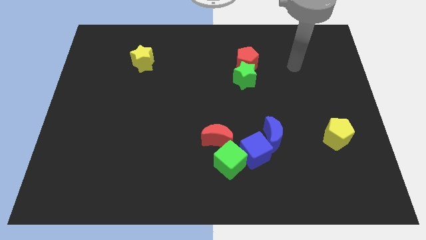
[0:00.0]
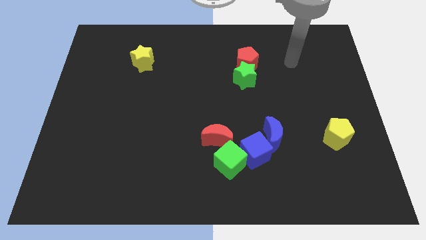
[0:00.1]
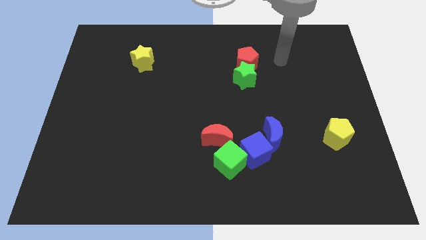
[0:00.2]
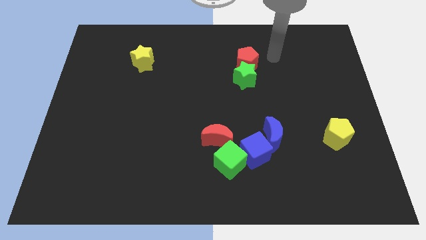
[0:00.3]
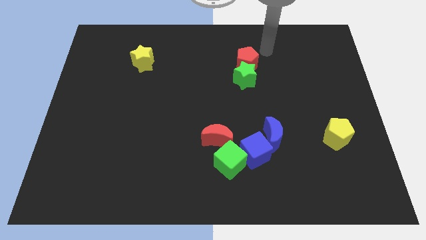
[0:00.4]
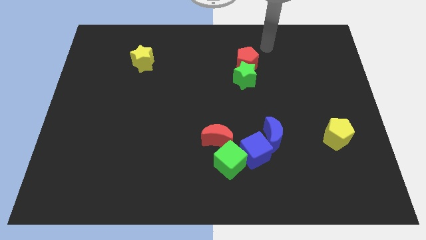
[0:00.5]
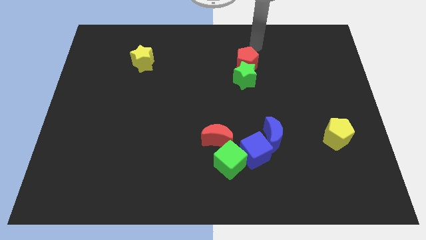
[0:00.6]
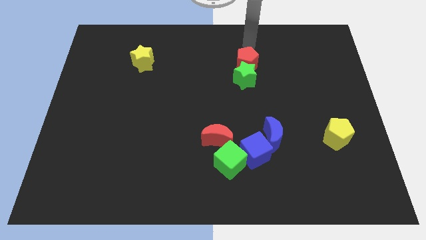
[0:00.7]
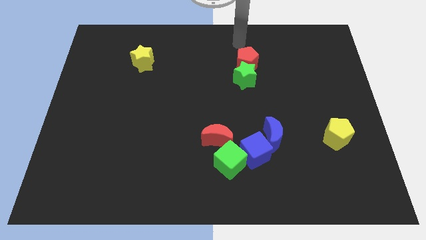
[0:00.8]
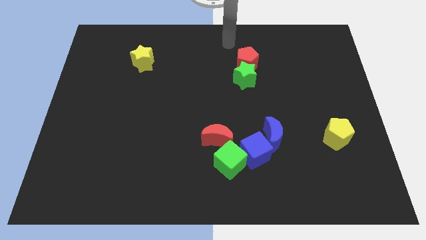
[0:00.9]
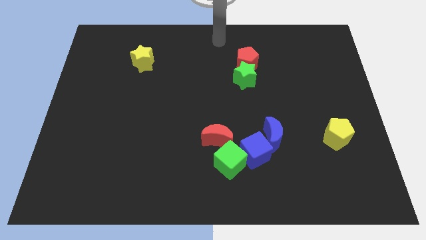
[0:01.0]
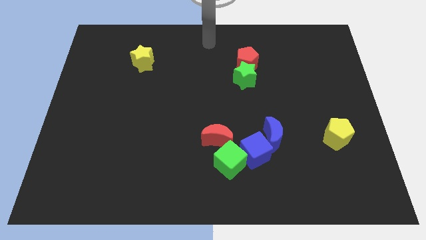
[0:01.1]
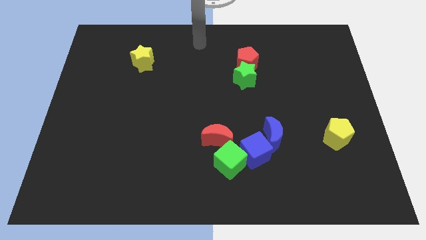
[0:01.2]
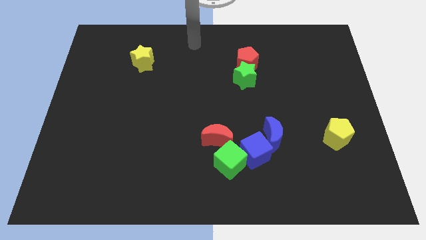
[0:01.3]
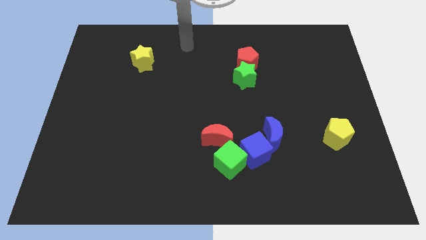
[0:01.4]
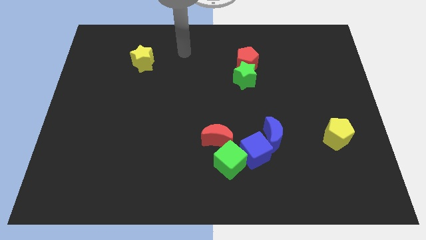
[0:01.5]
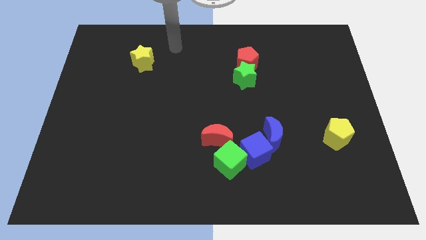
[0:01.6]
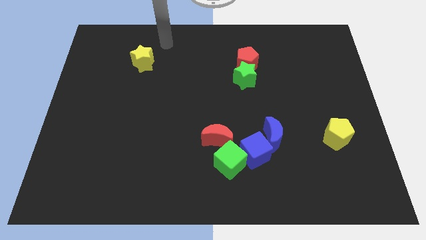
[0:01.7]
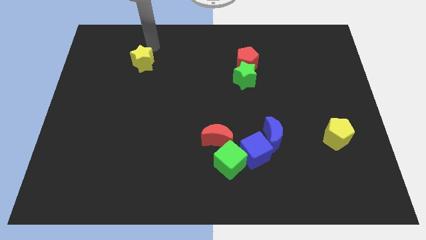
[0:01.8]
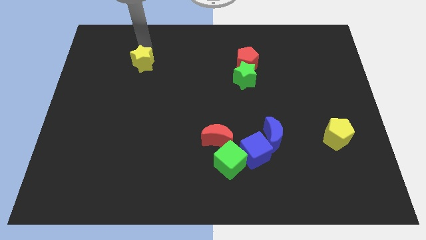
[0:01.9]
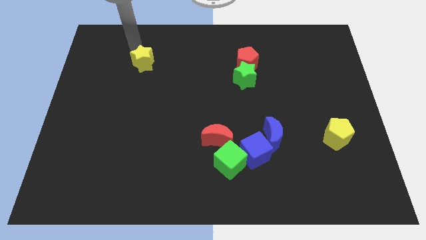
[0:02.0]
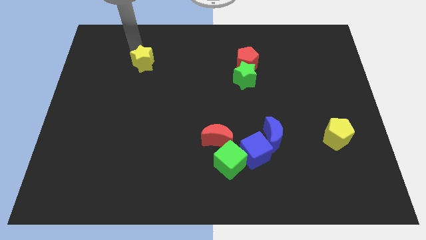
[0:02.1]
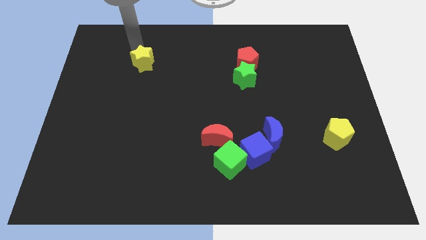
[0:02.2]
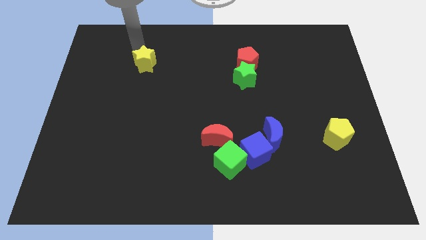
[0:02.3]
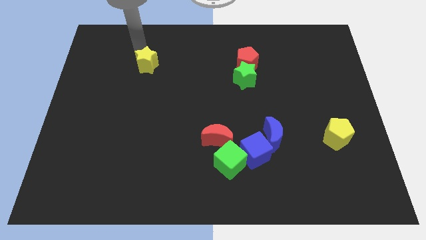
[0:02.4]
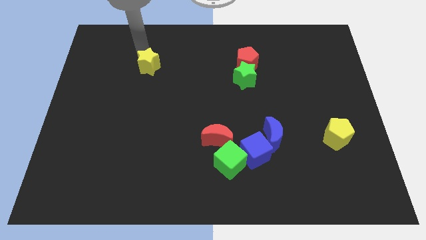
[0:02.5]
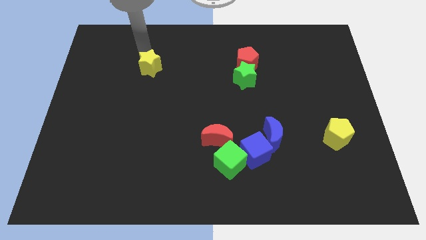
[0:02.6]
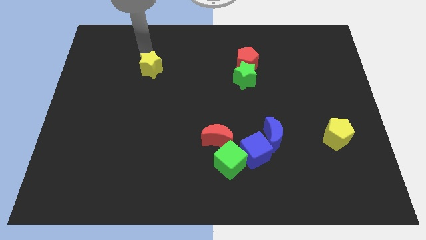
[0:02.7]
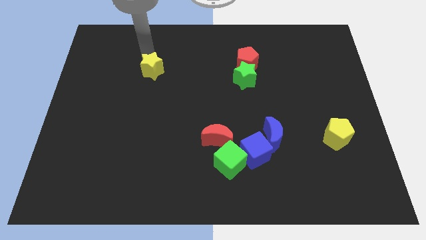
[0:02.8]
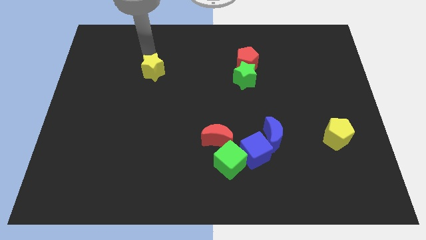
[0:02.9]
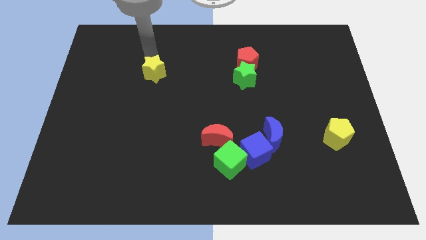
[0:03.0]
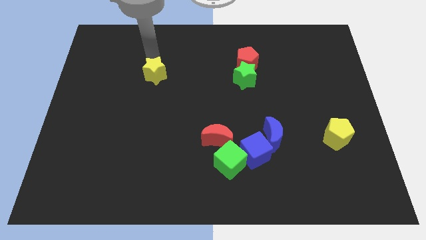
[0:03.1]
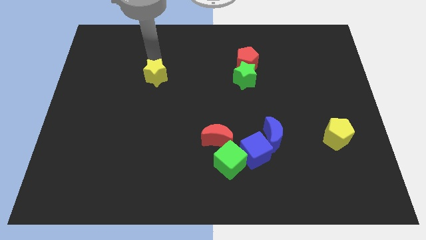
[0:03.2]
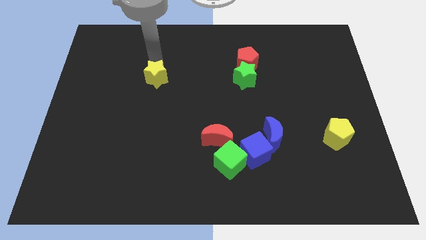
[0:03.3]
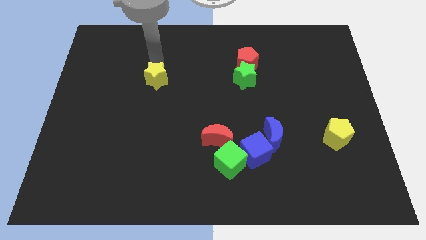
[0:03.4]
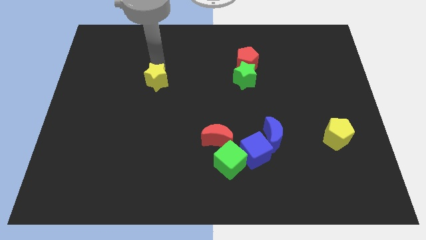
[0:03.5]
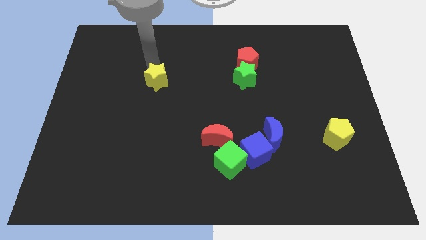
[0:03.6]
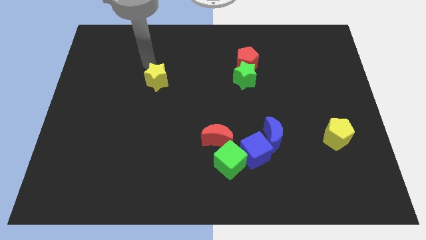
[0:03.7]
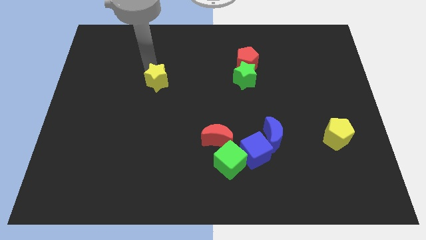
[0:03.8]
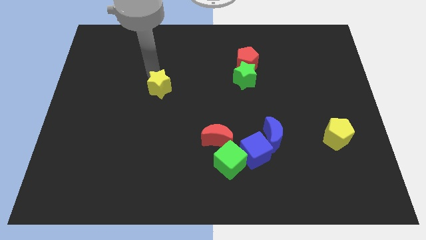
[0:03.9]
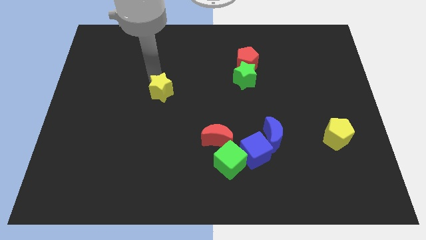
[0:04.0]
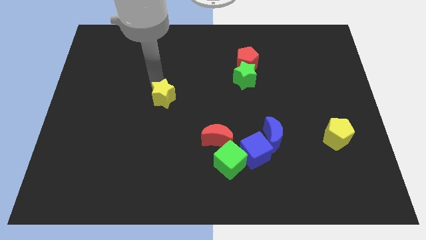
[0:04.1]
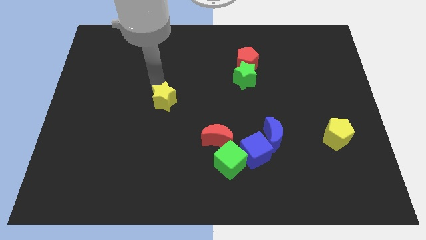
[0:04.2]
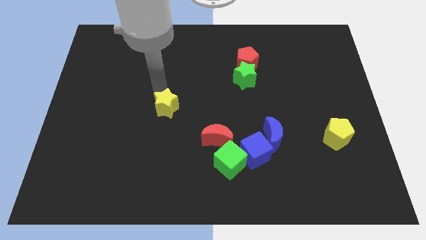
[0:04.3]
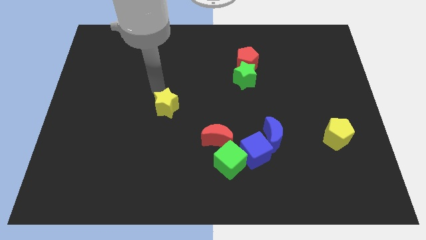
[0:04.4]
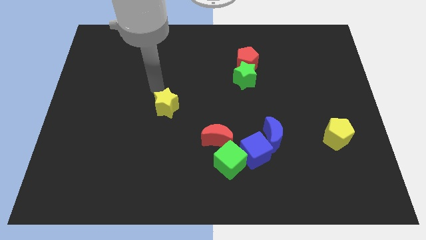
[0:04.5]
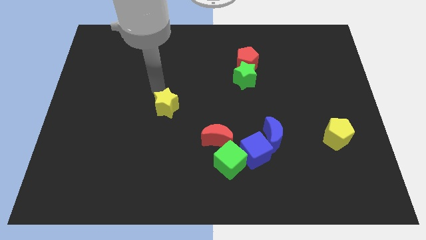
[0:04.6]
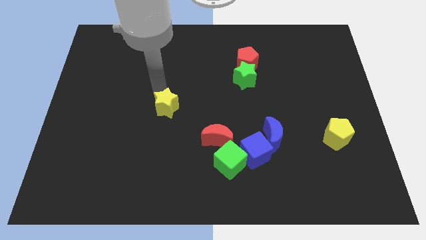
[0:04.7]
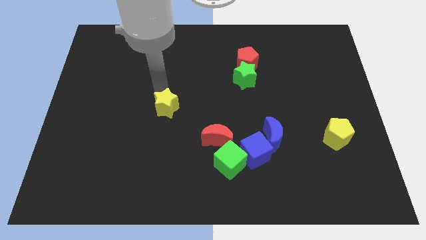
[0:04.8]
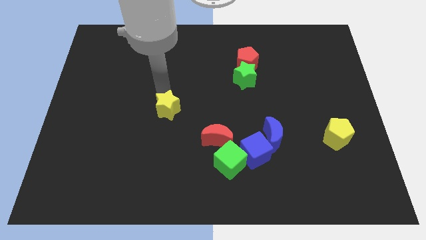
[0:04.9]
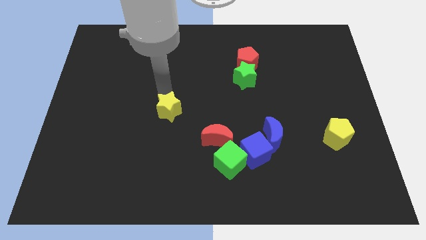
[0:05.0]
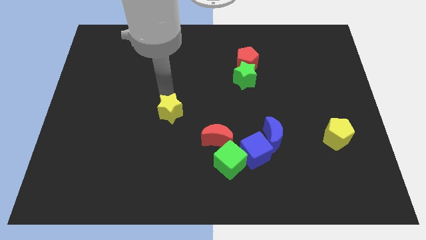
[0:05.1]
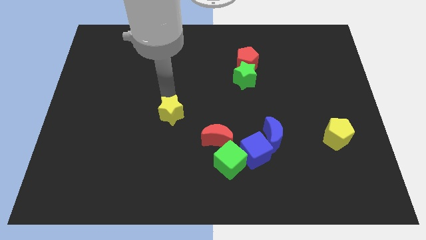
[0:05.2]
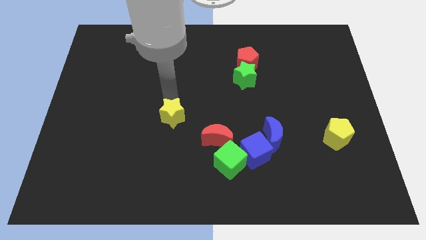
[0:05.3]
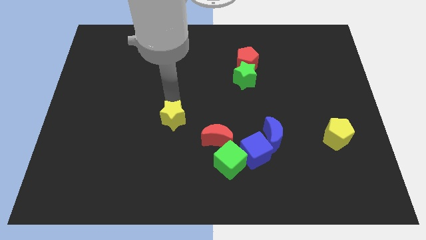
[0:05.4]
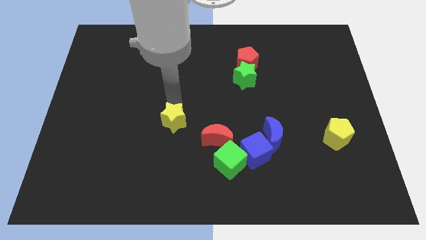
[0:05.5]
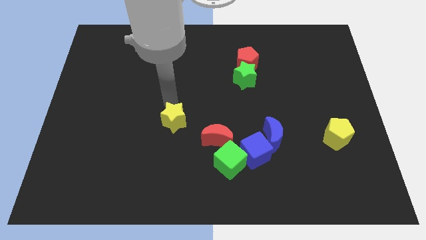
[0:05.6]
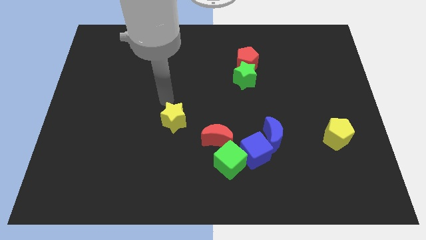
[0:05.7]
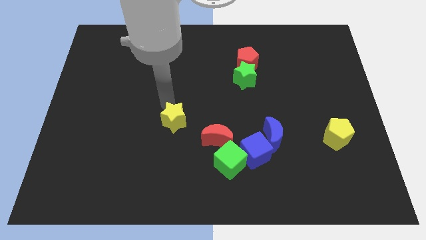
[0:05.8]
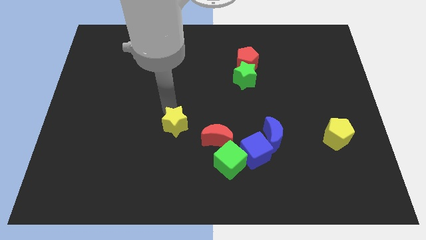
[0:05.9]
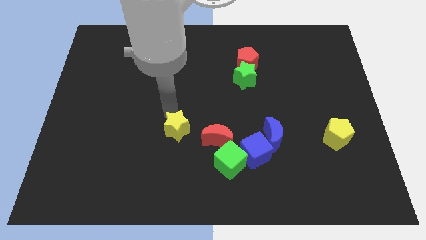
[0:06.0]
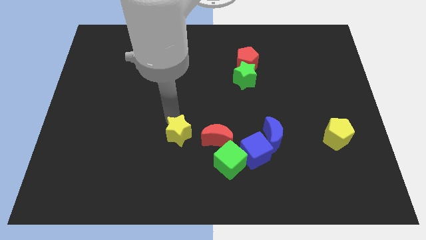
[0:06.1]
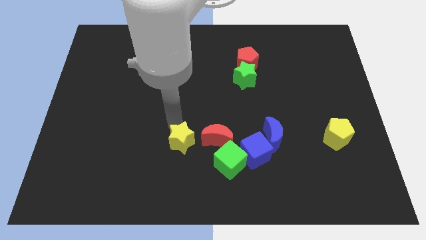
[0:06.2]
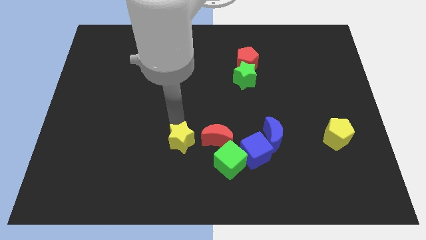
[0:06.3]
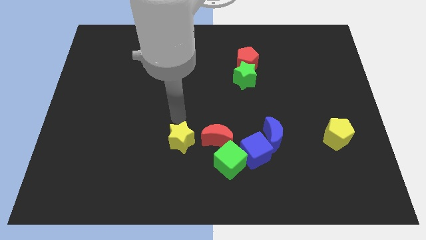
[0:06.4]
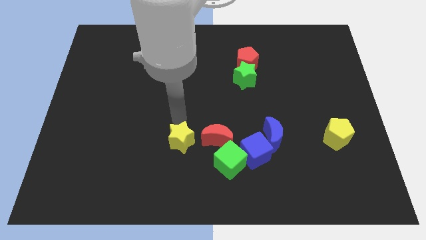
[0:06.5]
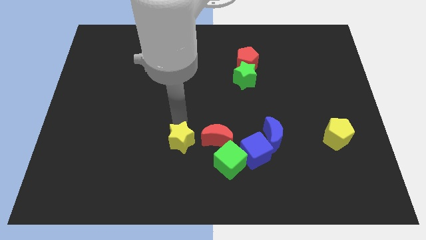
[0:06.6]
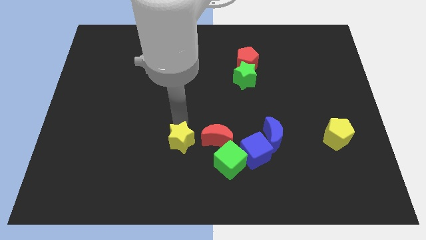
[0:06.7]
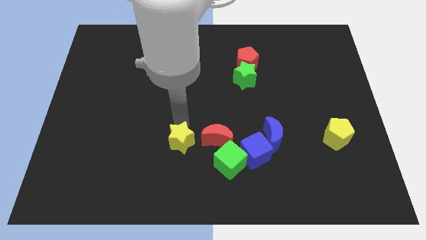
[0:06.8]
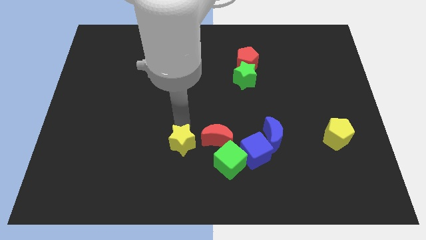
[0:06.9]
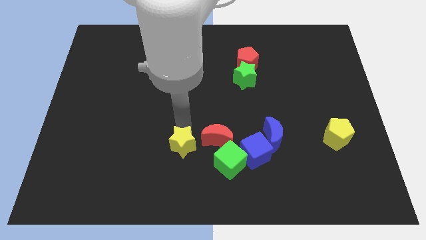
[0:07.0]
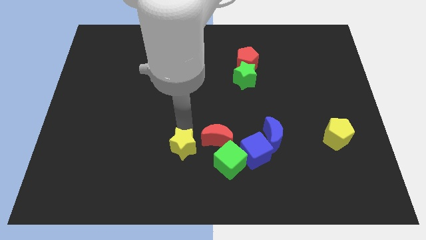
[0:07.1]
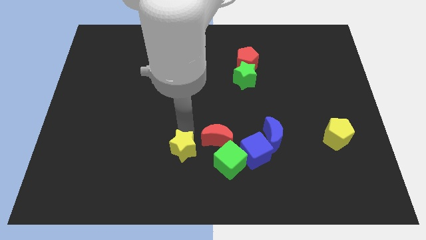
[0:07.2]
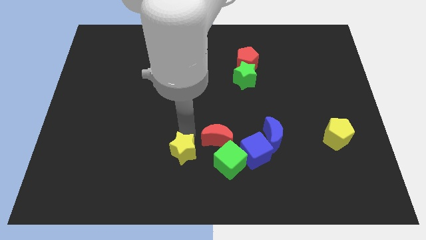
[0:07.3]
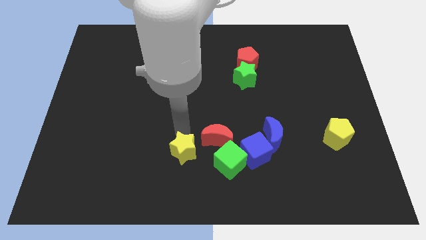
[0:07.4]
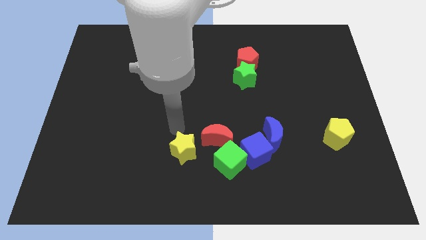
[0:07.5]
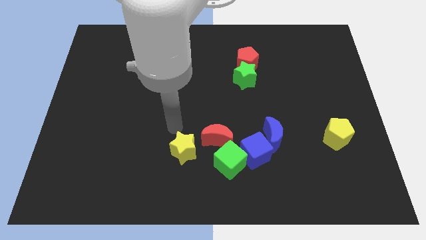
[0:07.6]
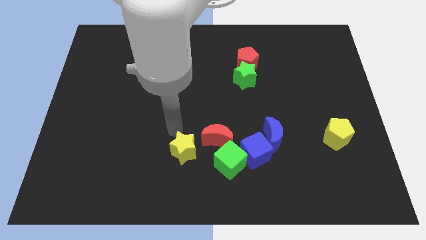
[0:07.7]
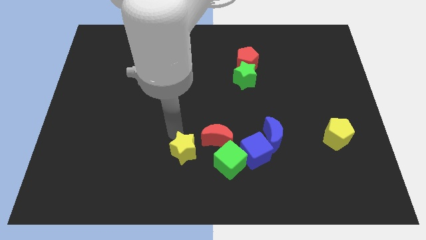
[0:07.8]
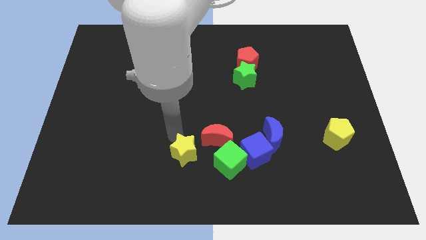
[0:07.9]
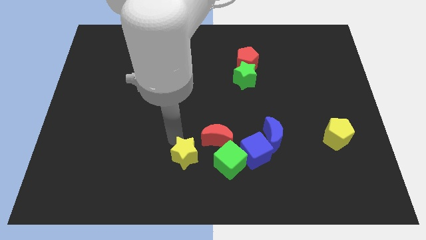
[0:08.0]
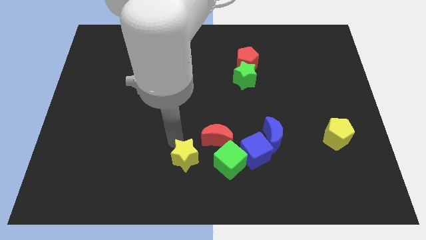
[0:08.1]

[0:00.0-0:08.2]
push the yellow star to the bottom side
